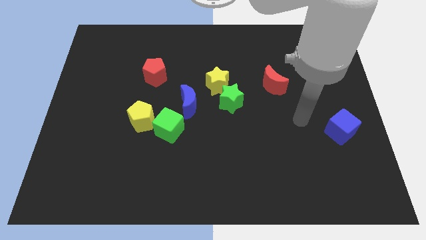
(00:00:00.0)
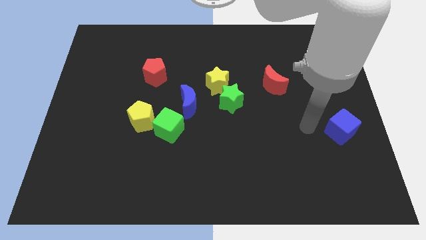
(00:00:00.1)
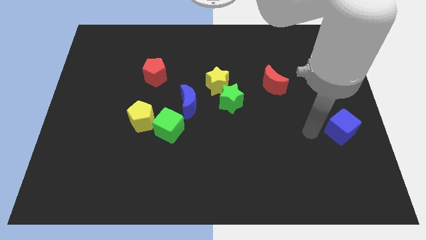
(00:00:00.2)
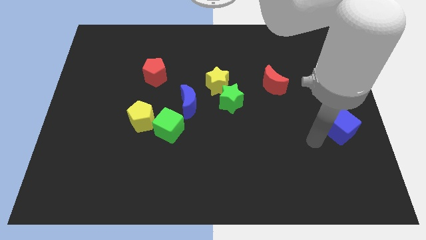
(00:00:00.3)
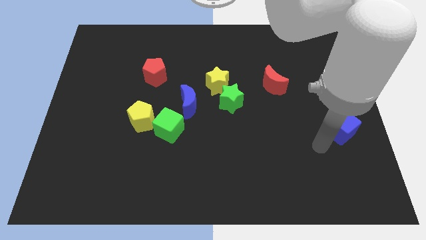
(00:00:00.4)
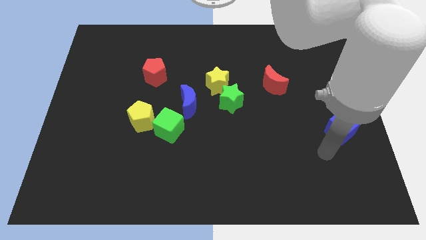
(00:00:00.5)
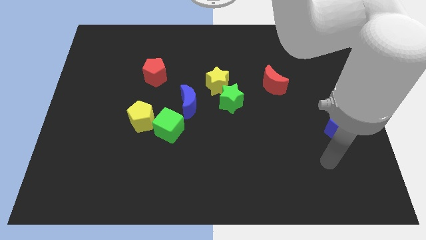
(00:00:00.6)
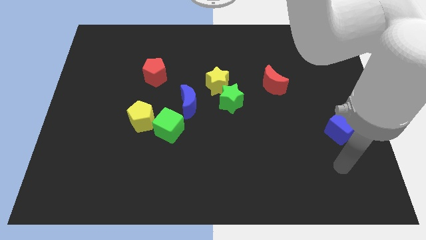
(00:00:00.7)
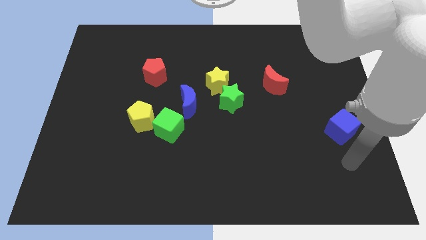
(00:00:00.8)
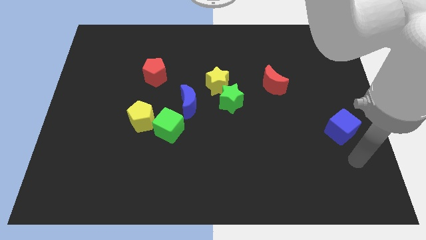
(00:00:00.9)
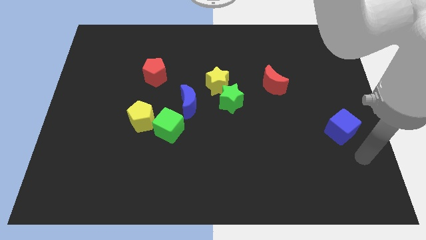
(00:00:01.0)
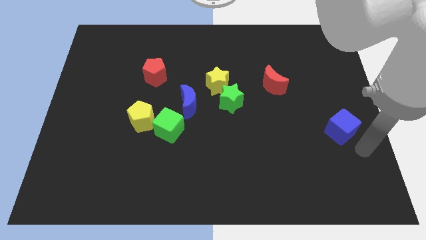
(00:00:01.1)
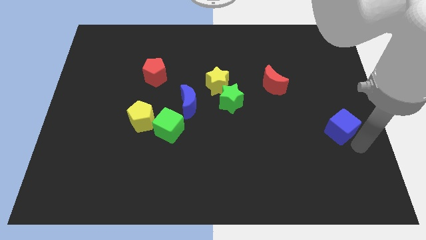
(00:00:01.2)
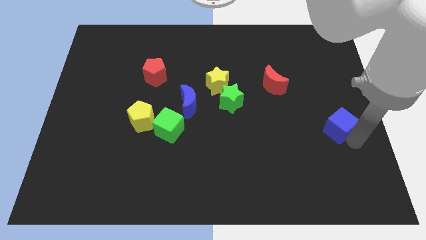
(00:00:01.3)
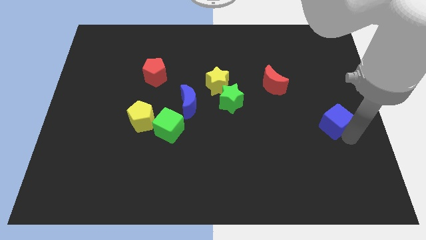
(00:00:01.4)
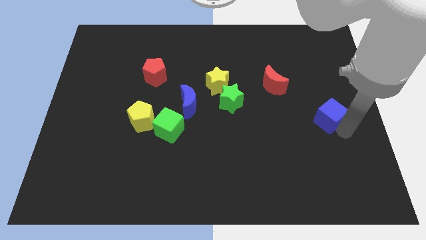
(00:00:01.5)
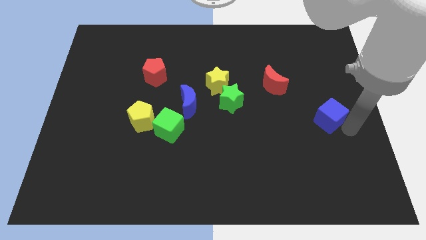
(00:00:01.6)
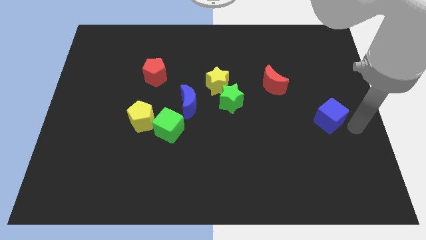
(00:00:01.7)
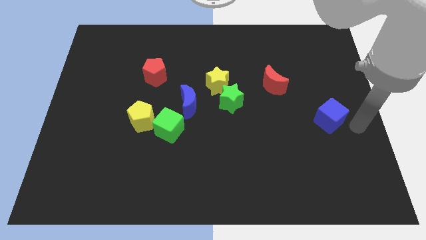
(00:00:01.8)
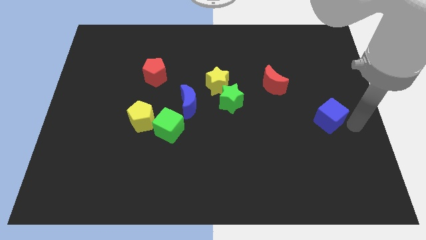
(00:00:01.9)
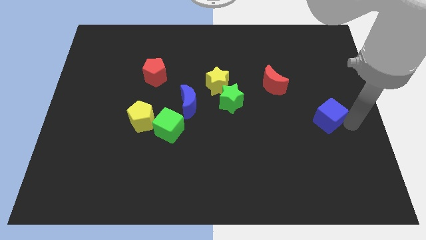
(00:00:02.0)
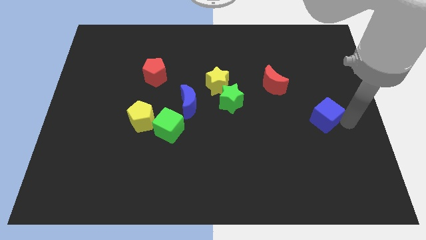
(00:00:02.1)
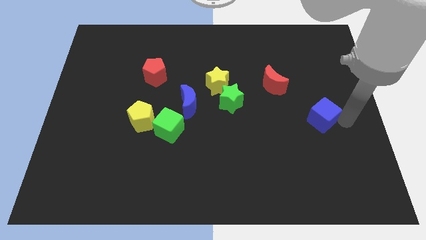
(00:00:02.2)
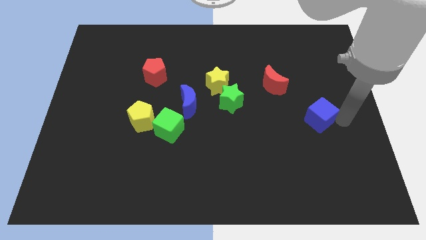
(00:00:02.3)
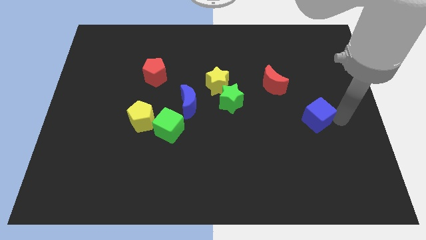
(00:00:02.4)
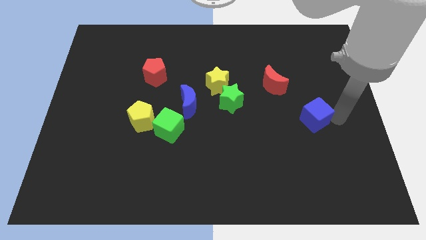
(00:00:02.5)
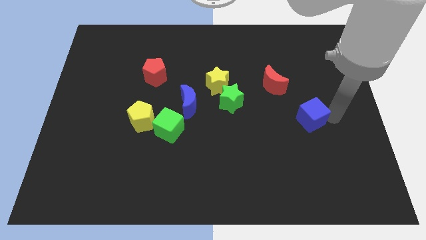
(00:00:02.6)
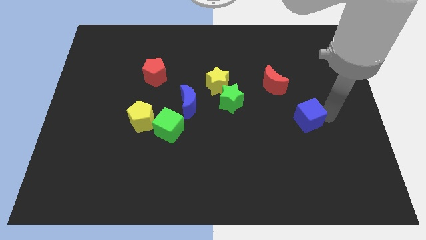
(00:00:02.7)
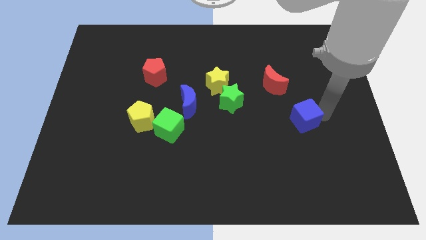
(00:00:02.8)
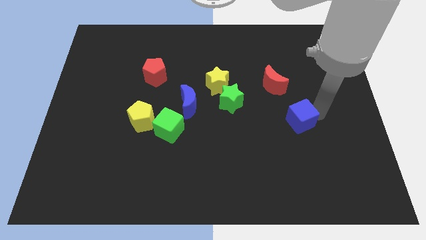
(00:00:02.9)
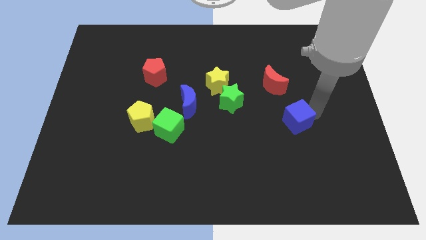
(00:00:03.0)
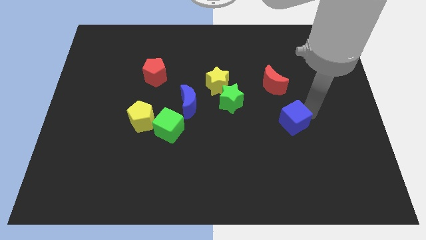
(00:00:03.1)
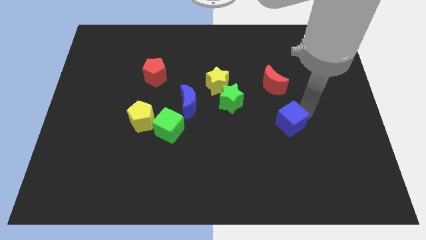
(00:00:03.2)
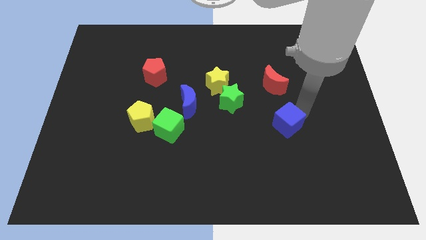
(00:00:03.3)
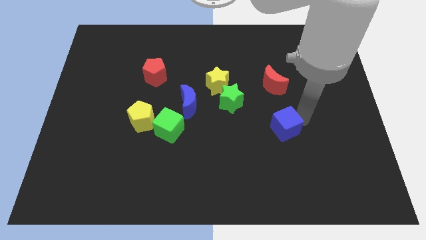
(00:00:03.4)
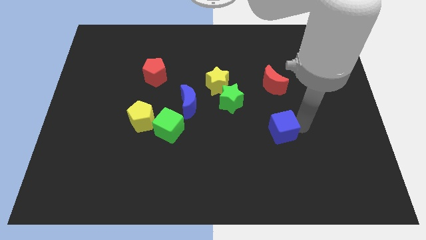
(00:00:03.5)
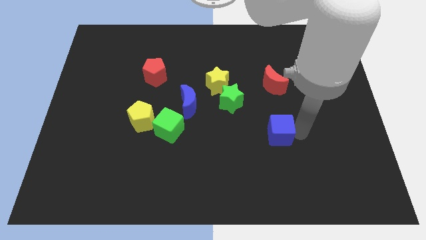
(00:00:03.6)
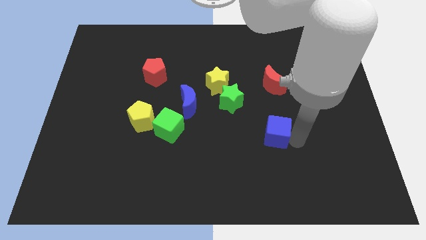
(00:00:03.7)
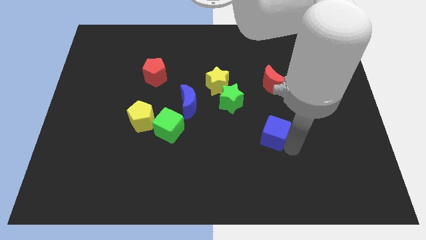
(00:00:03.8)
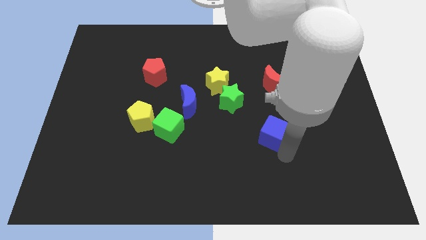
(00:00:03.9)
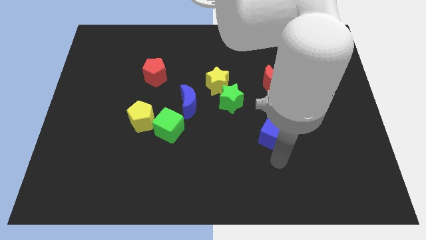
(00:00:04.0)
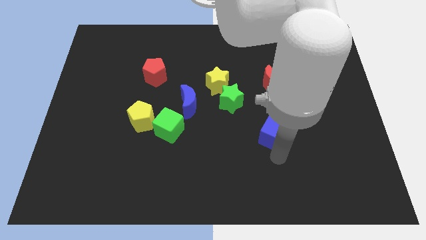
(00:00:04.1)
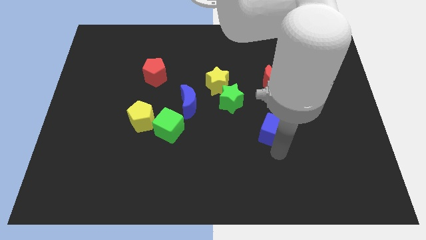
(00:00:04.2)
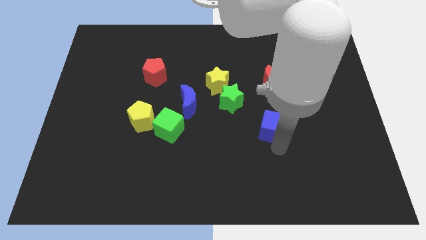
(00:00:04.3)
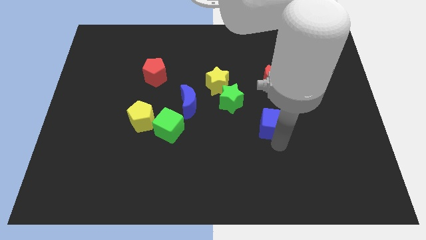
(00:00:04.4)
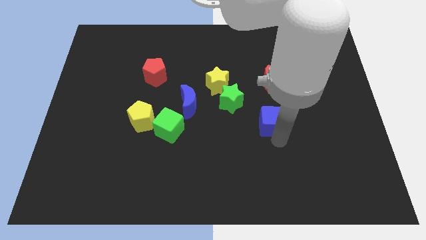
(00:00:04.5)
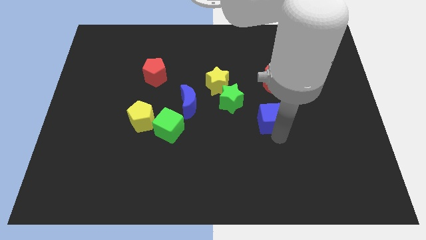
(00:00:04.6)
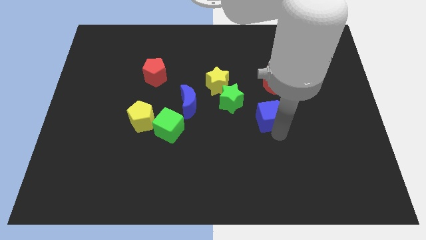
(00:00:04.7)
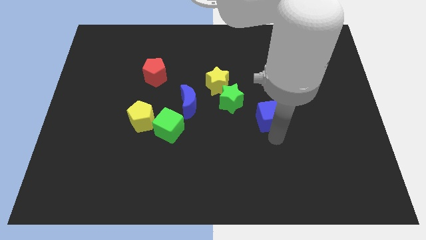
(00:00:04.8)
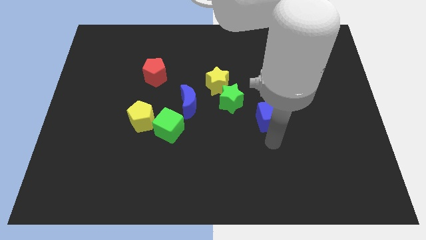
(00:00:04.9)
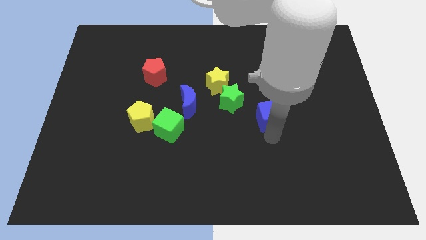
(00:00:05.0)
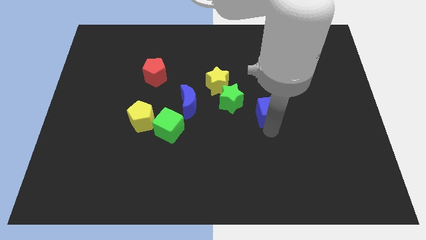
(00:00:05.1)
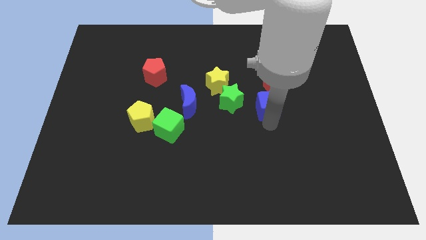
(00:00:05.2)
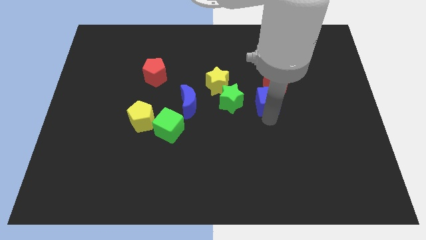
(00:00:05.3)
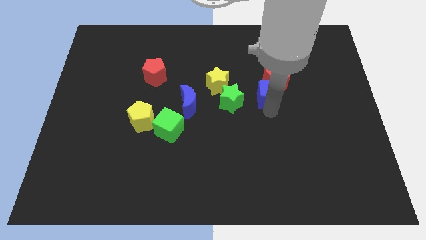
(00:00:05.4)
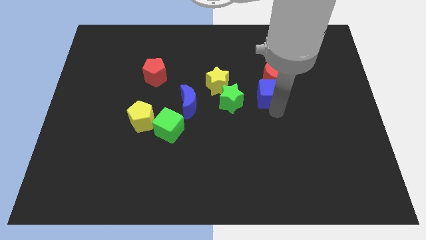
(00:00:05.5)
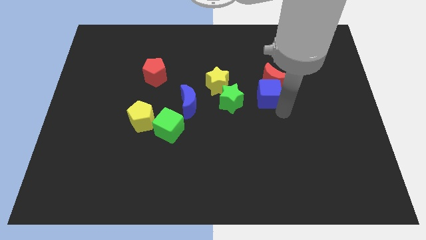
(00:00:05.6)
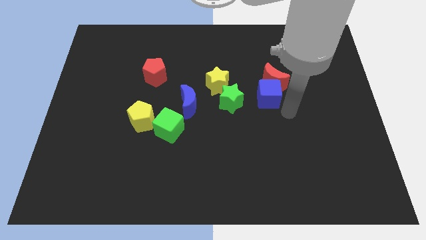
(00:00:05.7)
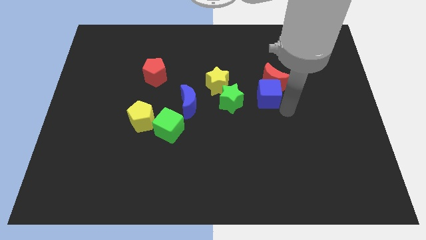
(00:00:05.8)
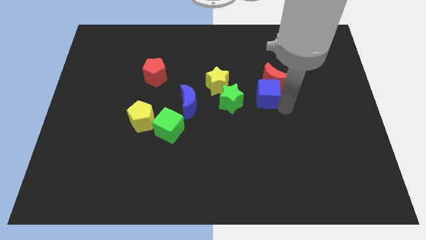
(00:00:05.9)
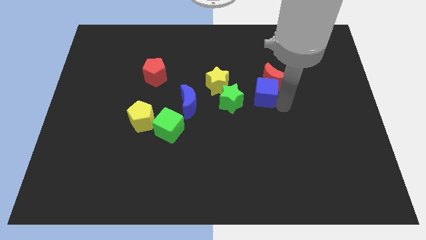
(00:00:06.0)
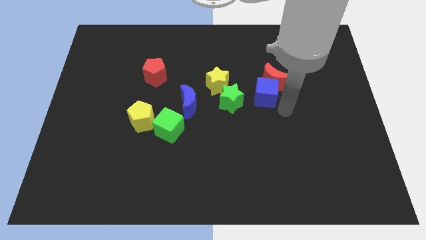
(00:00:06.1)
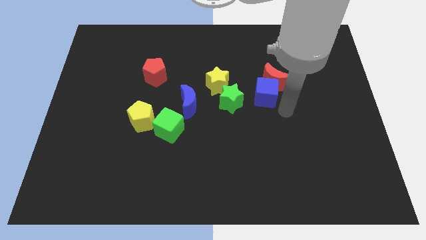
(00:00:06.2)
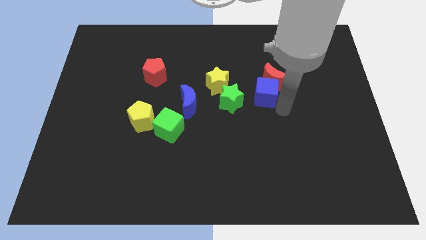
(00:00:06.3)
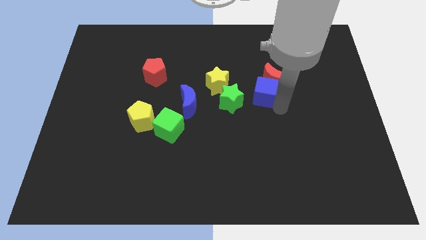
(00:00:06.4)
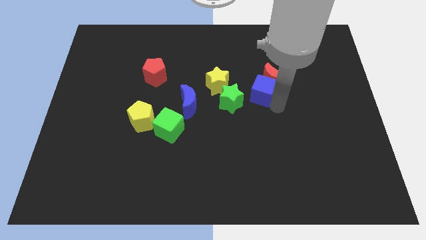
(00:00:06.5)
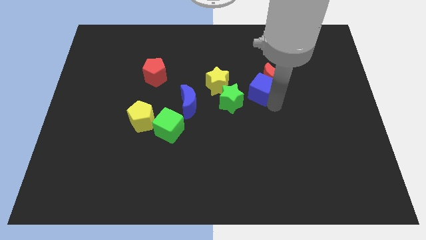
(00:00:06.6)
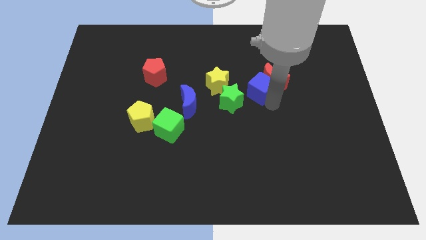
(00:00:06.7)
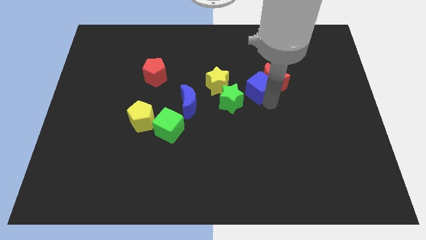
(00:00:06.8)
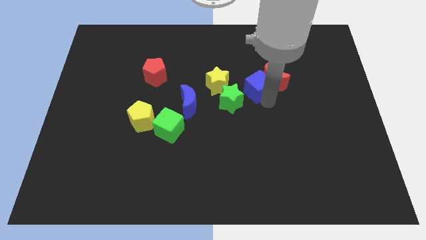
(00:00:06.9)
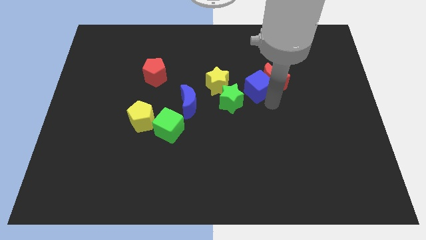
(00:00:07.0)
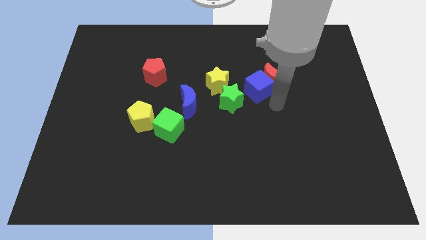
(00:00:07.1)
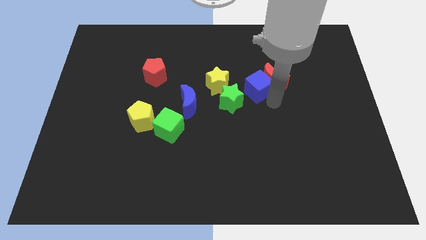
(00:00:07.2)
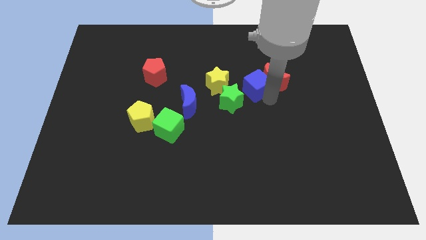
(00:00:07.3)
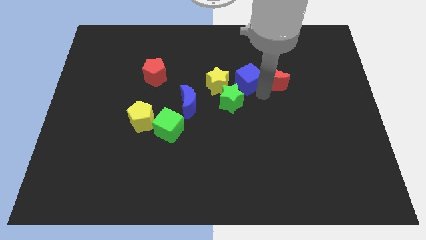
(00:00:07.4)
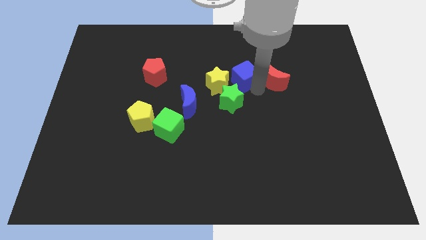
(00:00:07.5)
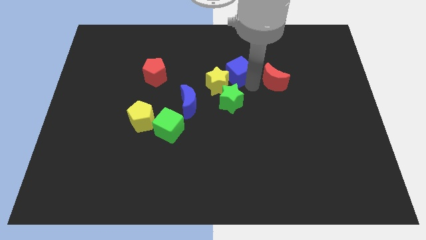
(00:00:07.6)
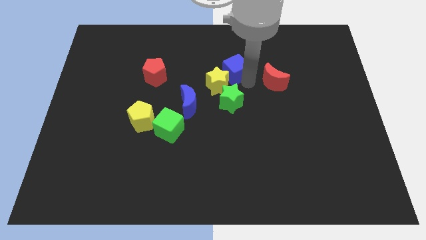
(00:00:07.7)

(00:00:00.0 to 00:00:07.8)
move the blue cube to the top side of the yellow star
